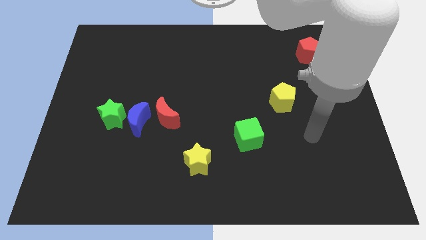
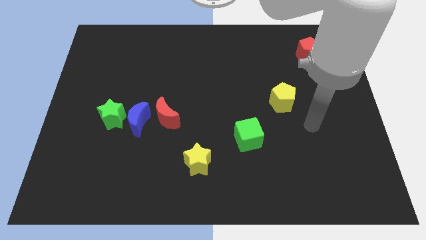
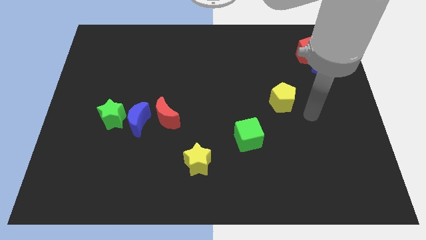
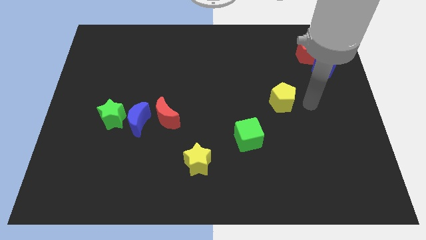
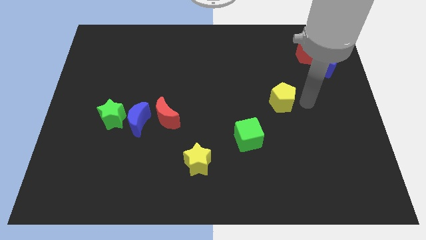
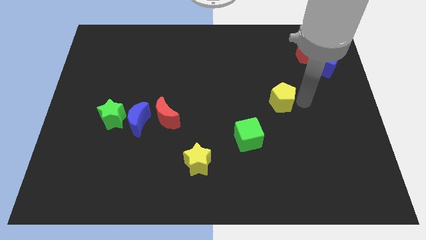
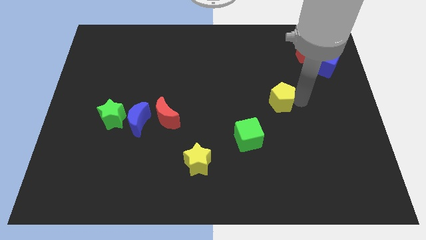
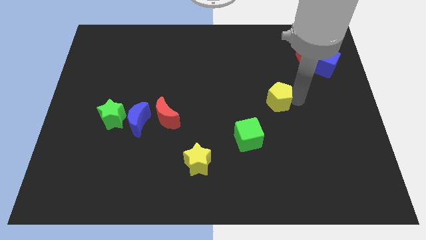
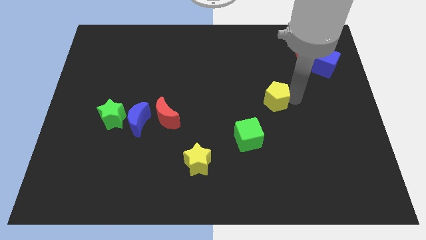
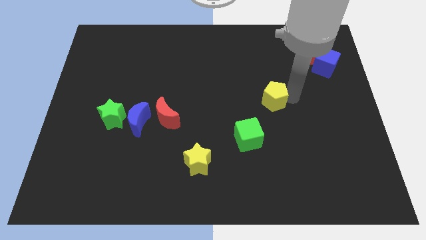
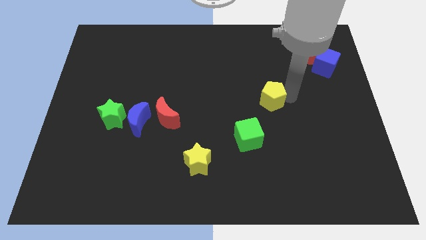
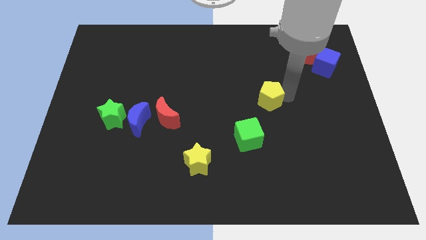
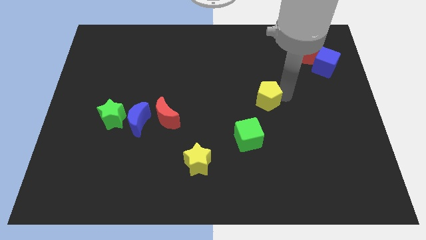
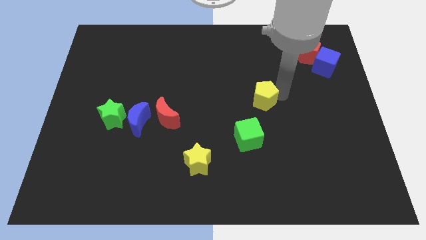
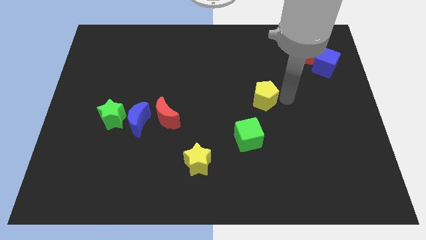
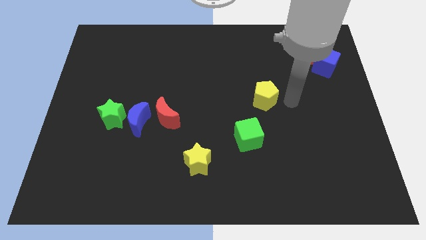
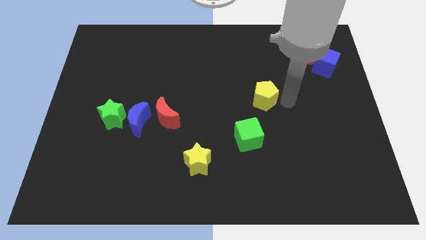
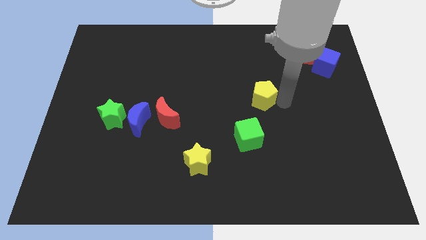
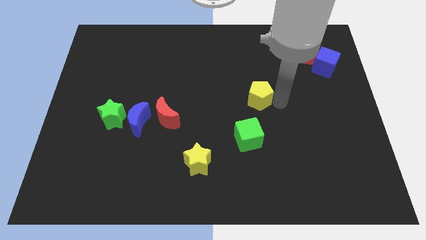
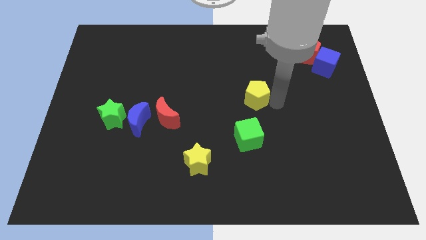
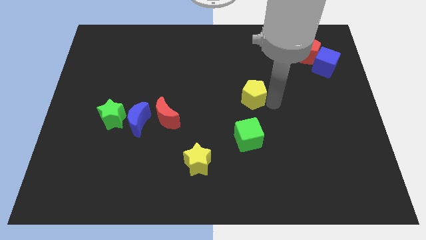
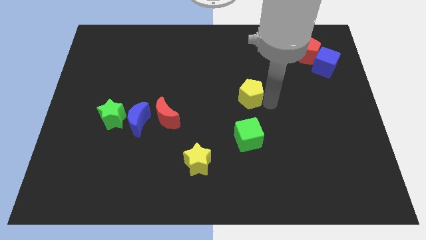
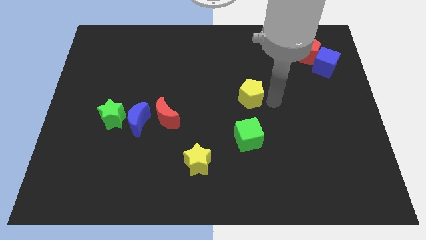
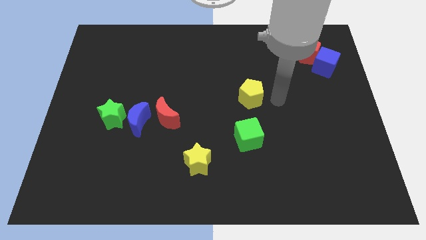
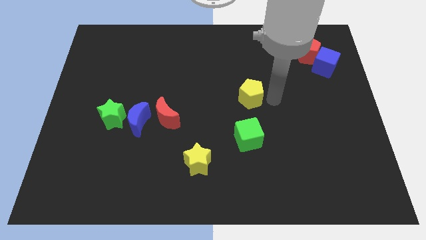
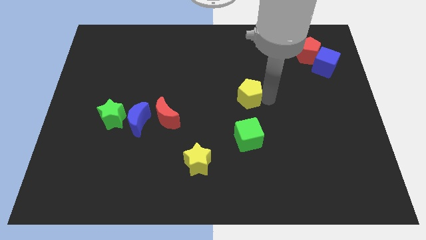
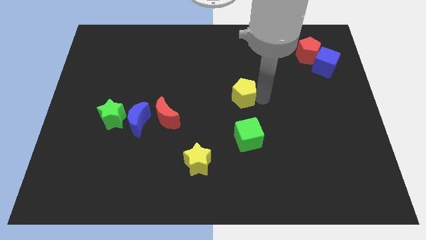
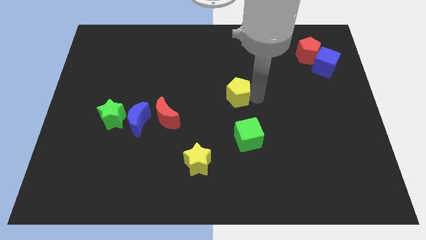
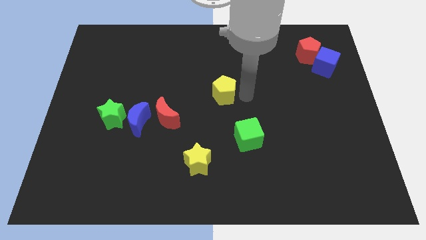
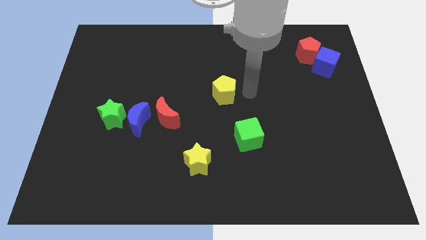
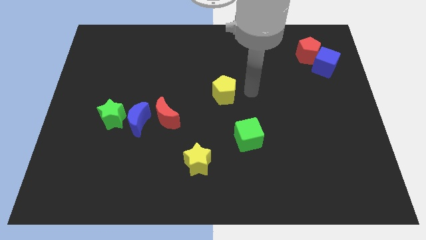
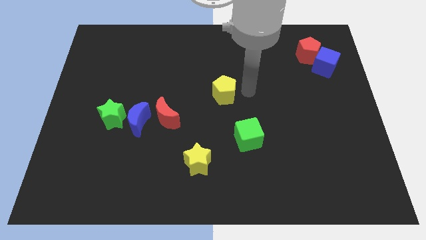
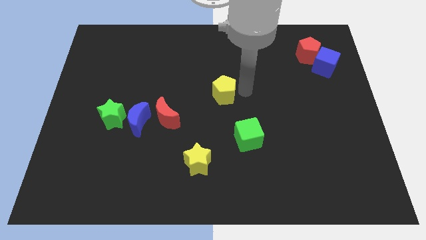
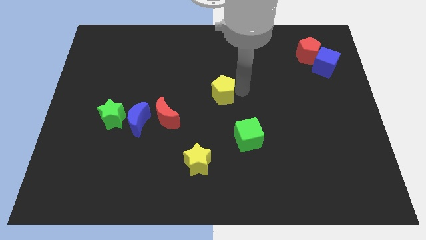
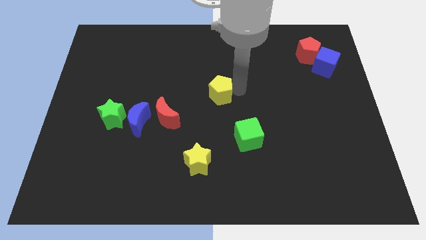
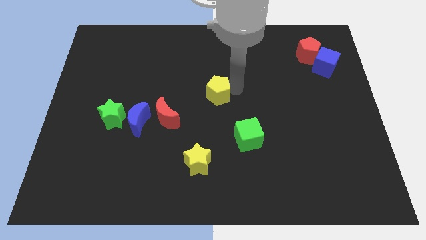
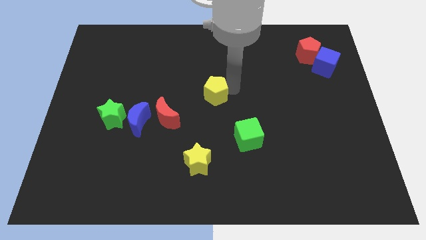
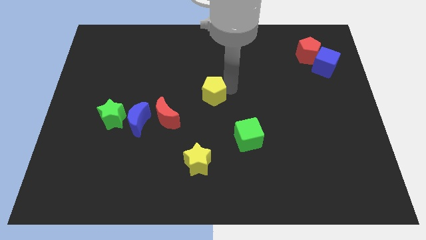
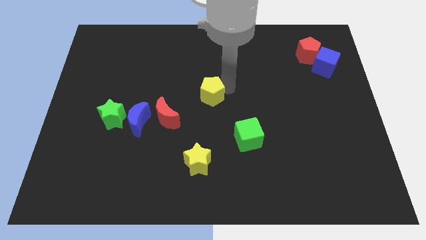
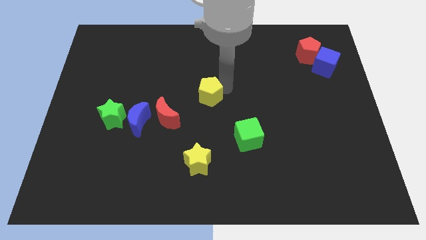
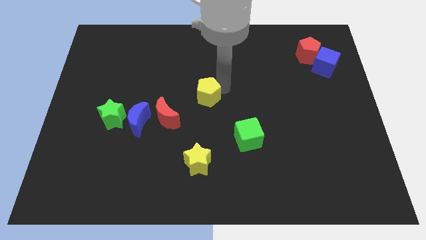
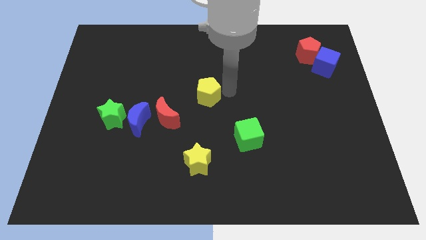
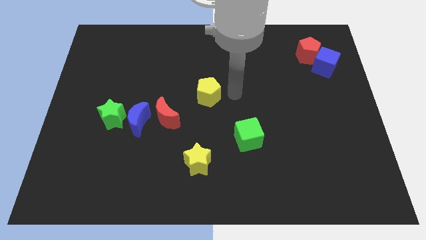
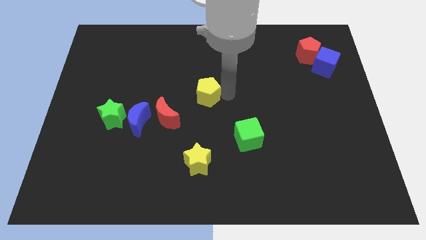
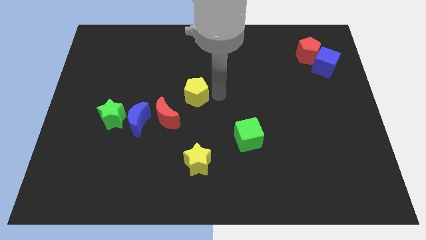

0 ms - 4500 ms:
move the yellow pentagon left

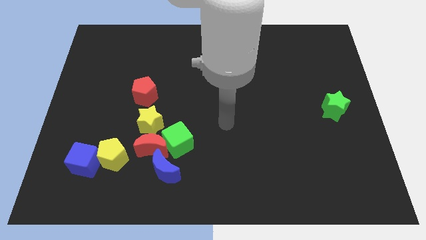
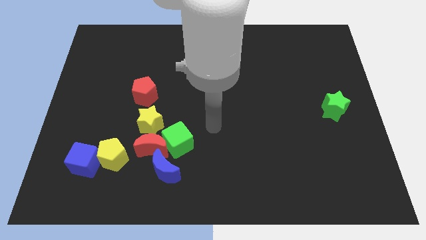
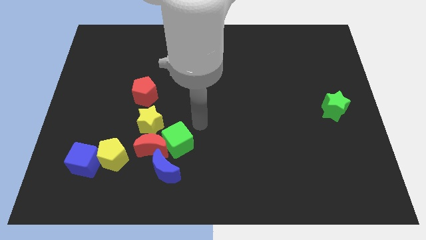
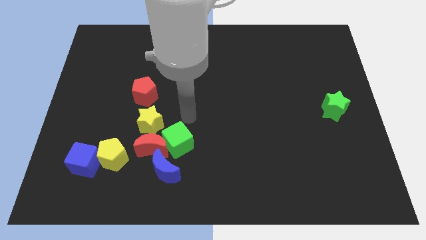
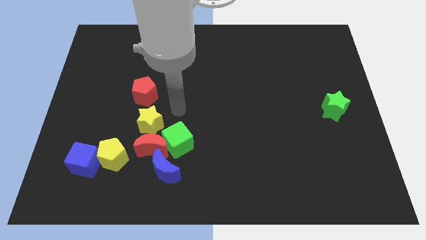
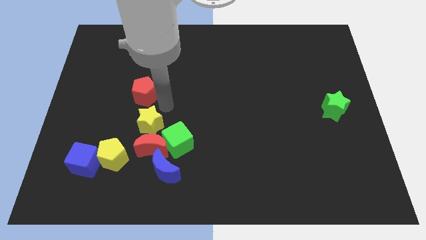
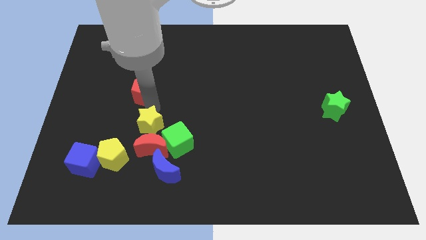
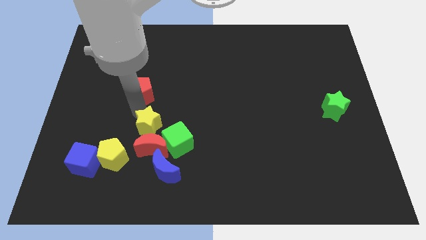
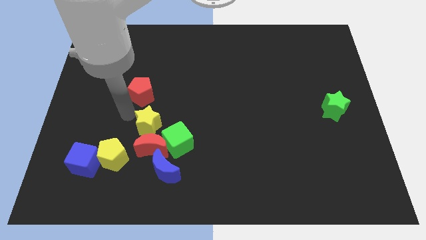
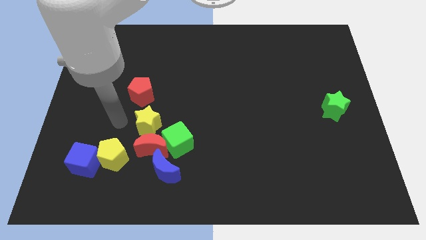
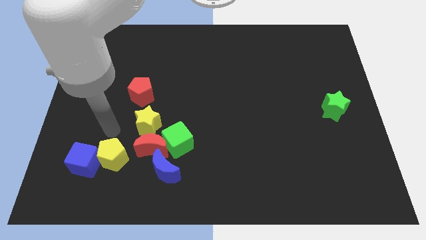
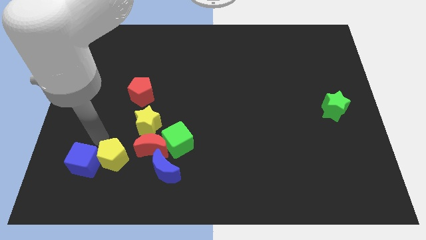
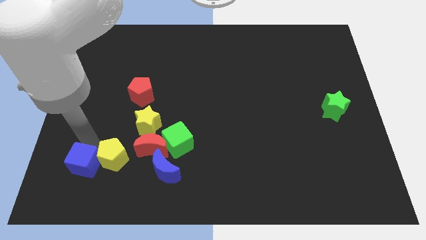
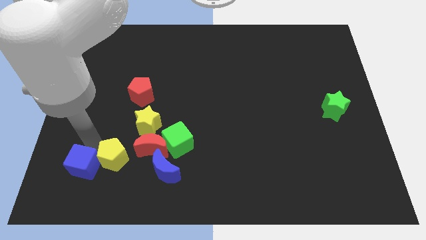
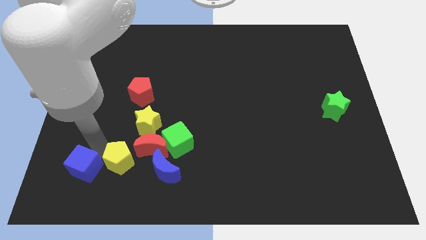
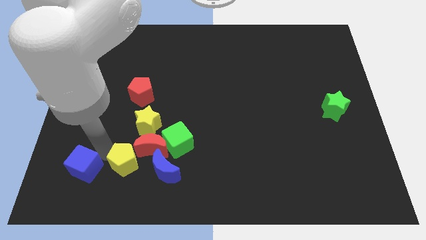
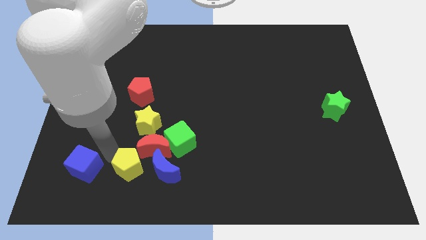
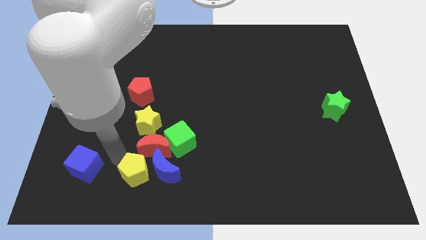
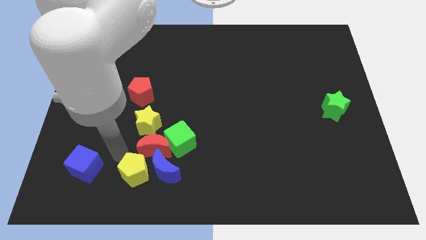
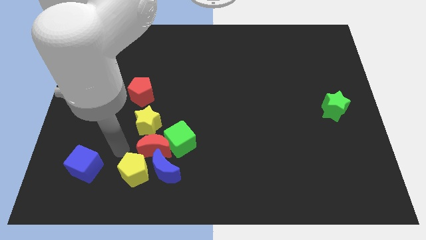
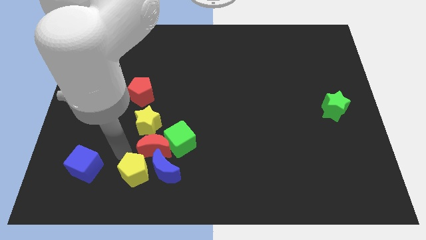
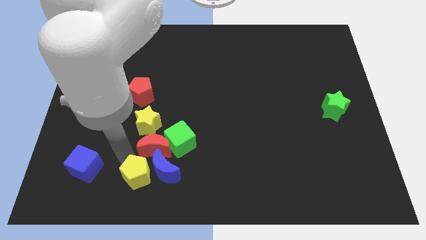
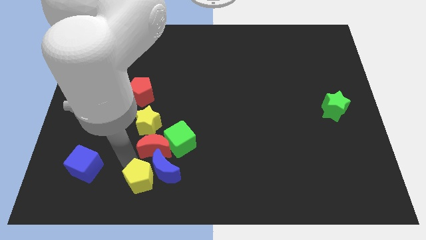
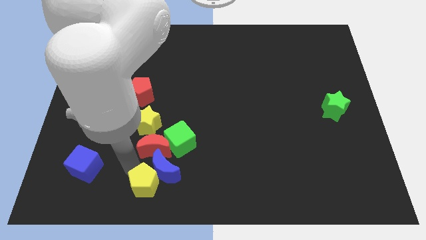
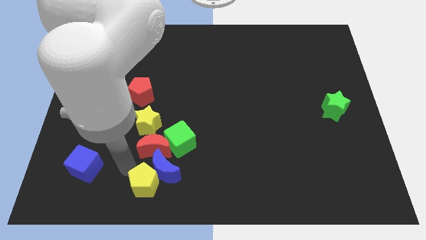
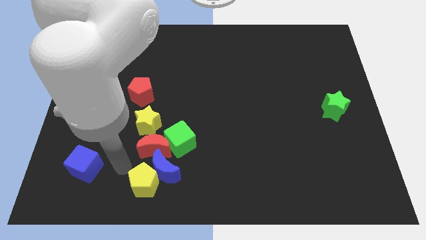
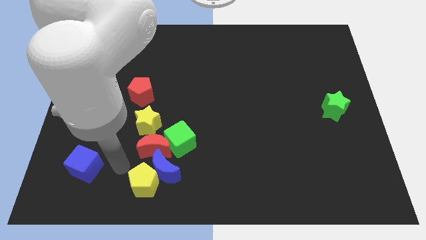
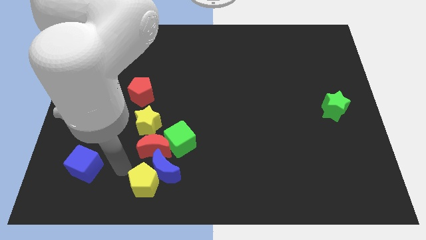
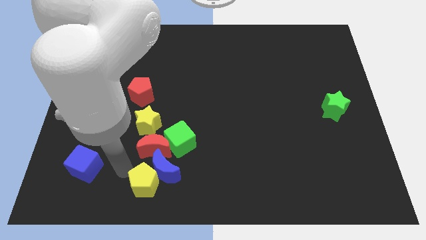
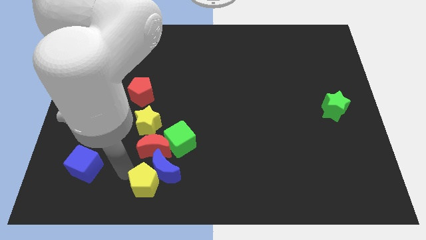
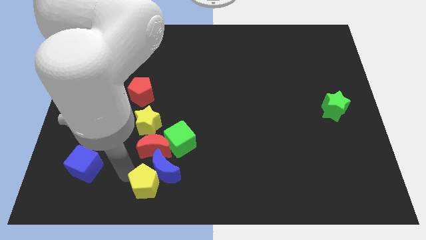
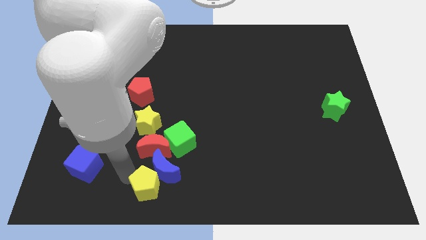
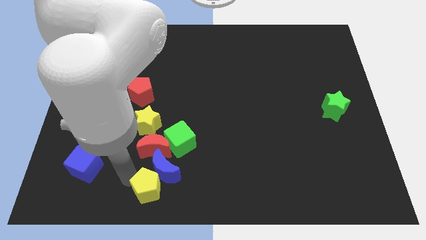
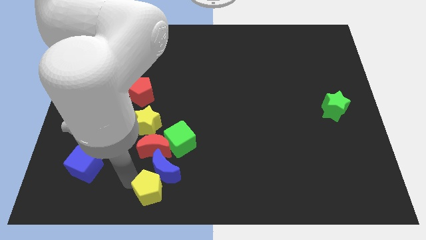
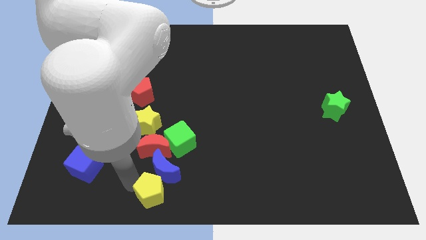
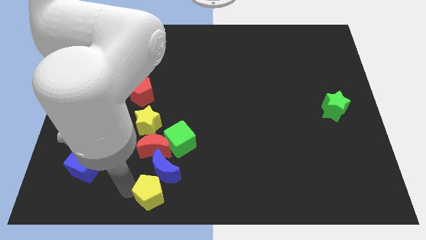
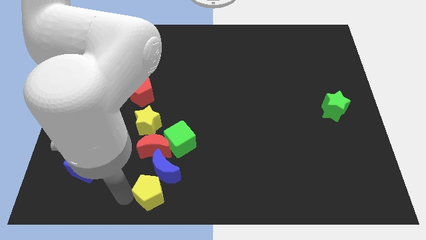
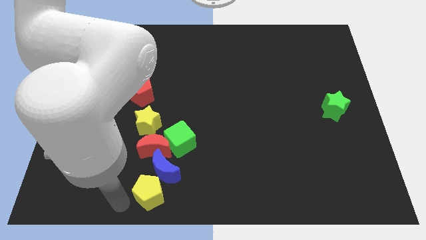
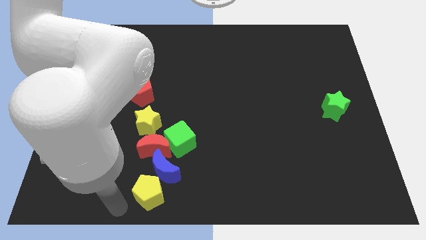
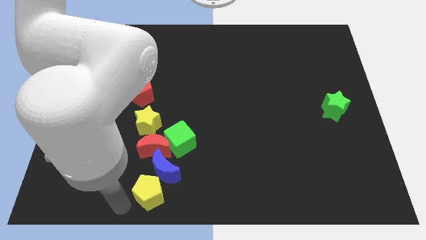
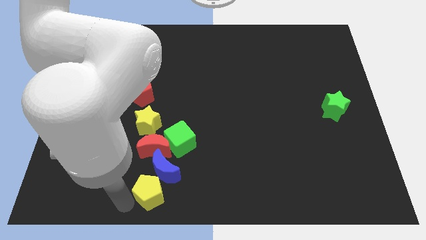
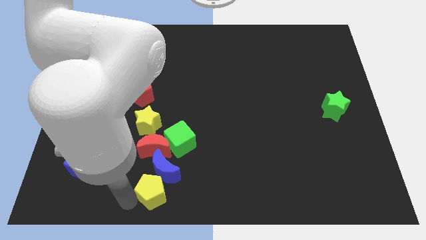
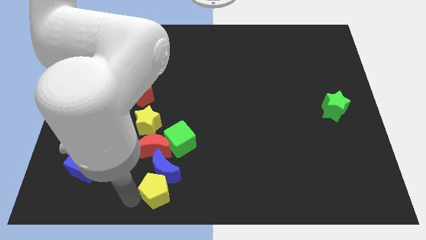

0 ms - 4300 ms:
move the yellow pentagon somewhat to the right
